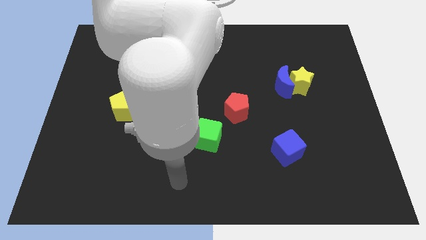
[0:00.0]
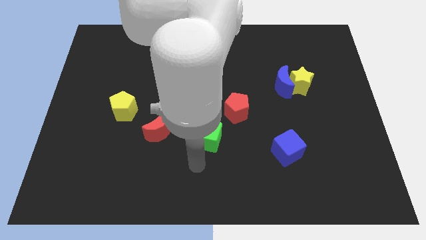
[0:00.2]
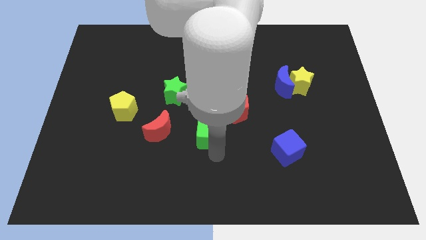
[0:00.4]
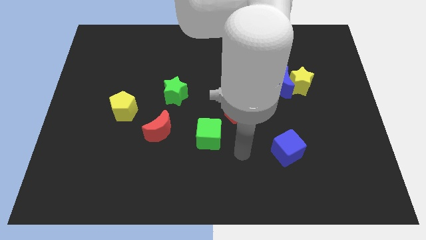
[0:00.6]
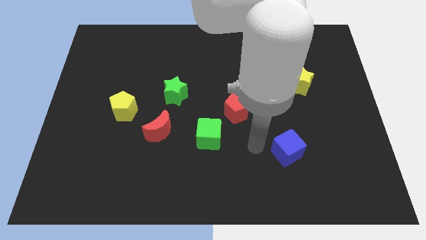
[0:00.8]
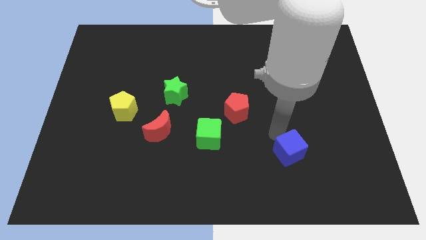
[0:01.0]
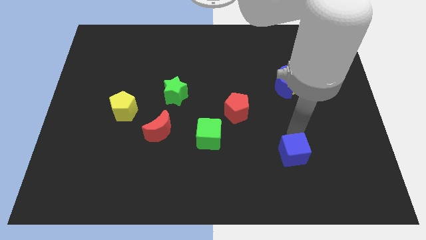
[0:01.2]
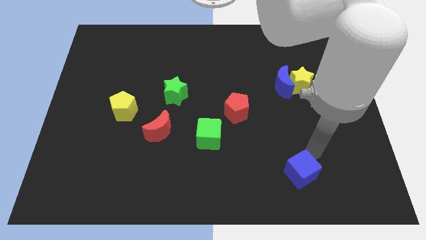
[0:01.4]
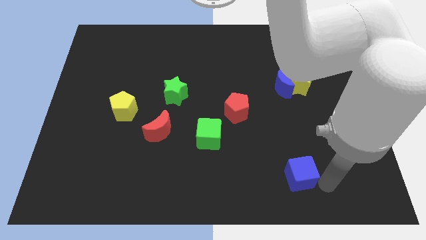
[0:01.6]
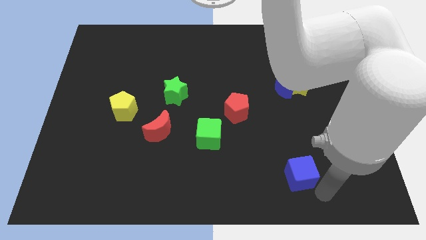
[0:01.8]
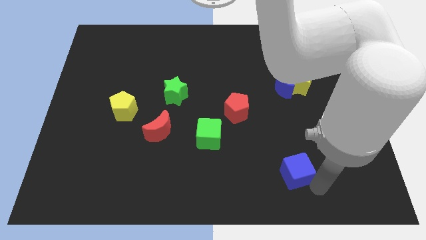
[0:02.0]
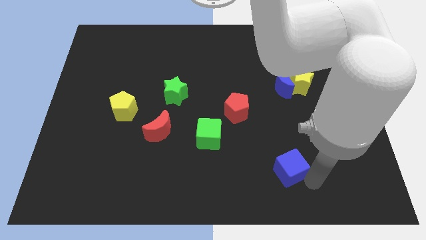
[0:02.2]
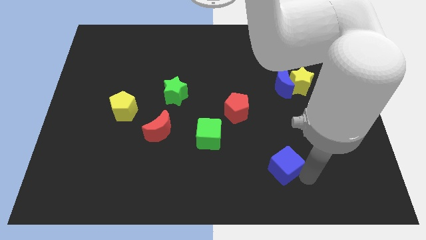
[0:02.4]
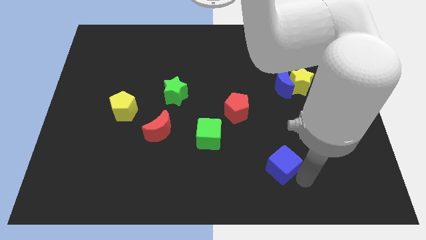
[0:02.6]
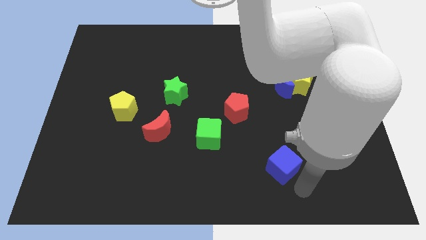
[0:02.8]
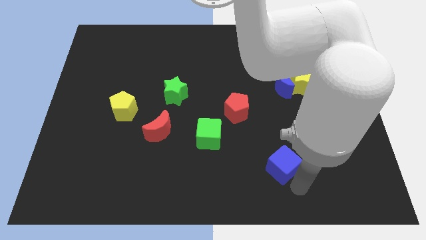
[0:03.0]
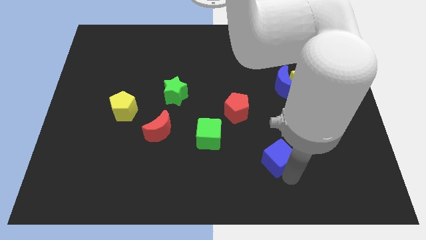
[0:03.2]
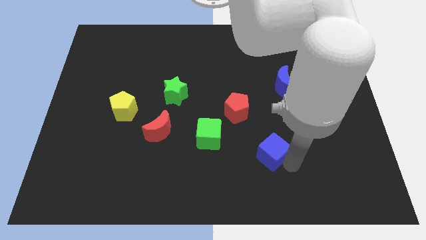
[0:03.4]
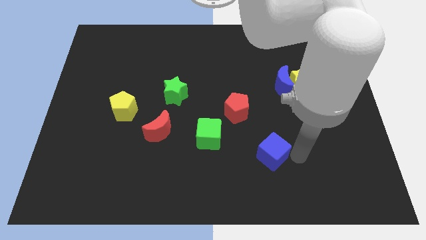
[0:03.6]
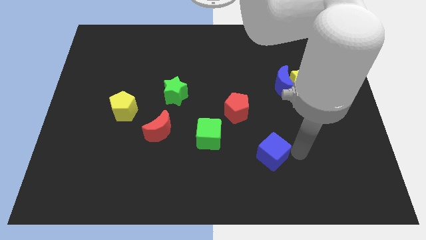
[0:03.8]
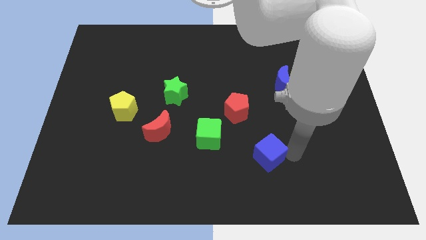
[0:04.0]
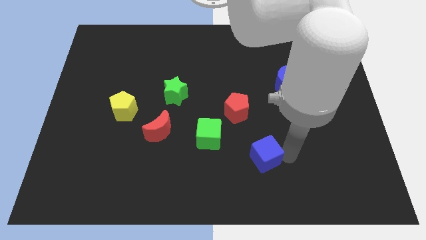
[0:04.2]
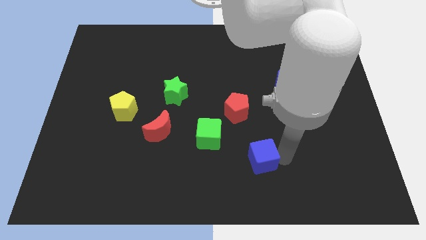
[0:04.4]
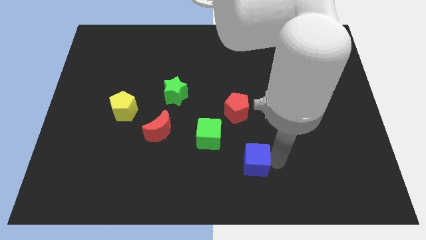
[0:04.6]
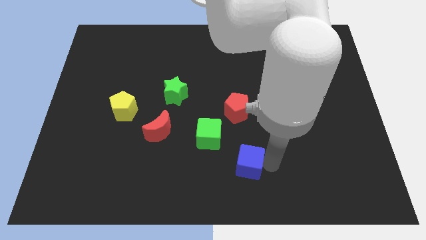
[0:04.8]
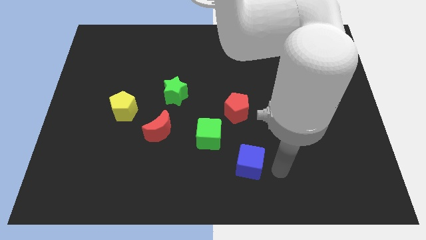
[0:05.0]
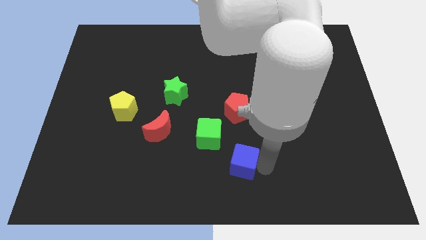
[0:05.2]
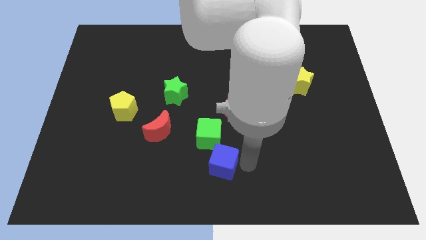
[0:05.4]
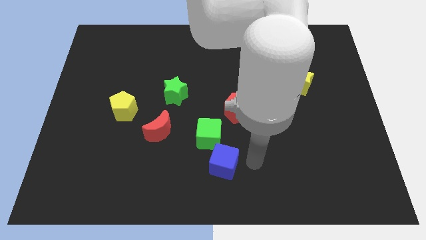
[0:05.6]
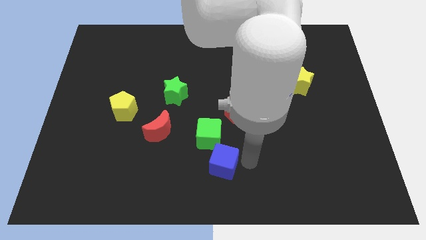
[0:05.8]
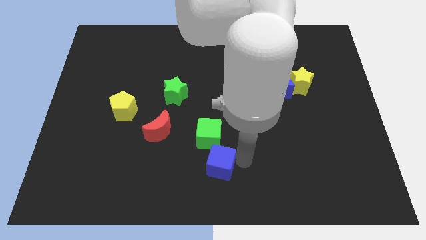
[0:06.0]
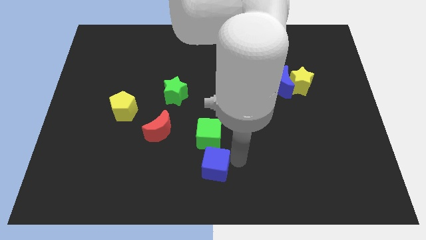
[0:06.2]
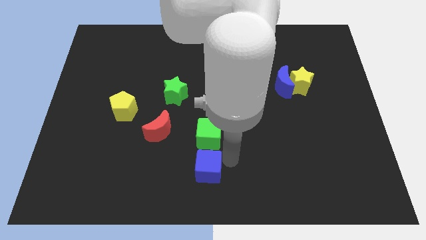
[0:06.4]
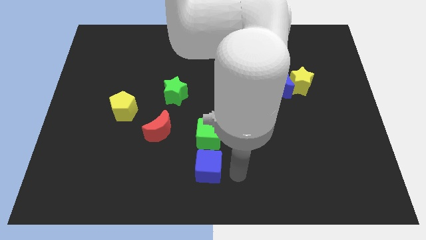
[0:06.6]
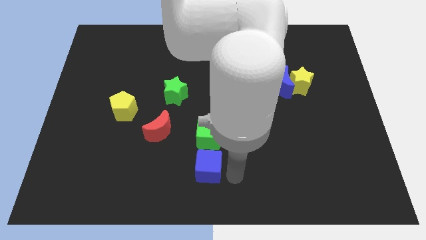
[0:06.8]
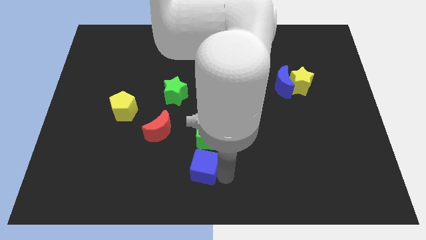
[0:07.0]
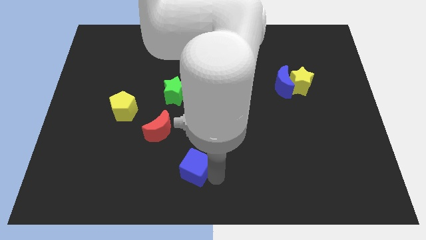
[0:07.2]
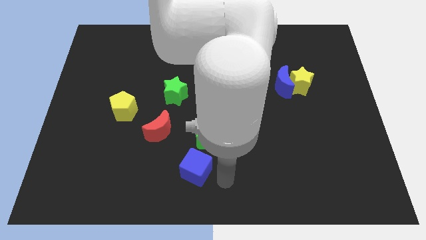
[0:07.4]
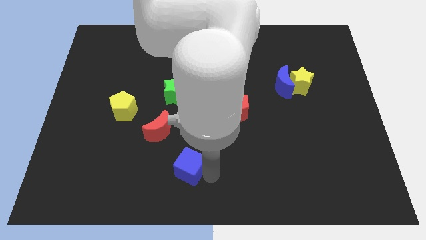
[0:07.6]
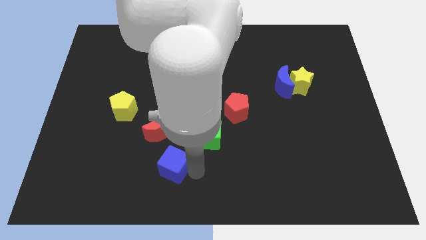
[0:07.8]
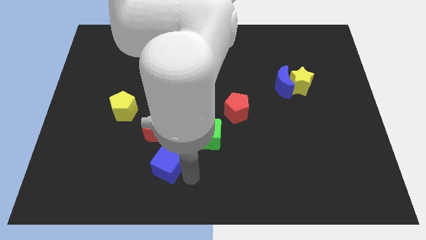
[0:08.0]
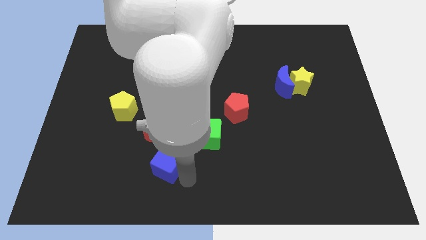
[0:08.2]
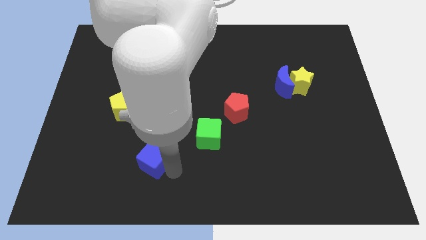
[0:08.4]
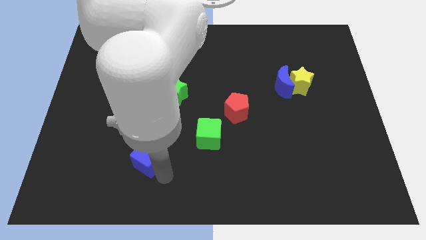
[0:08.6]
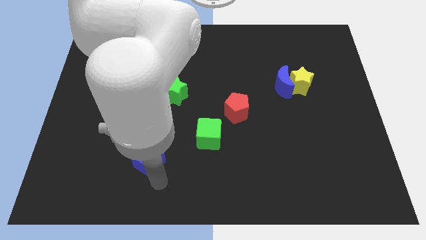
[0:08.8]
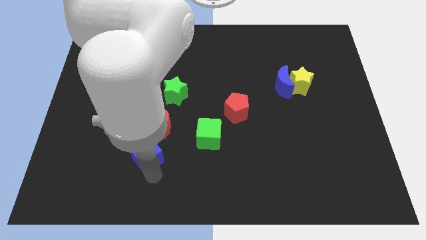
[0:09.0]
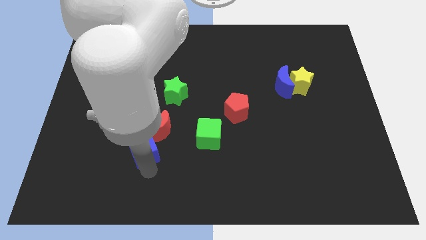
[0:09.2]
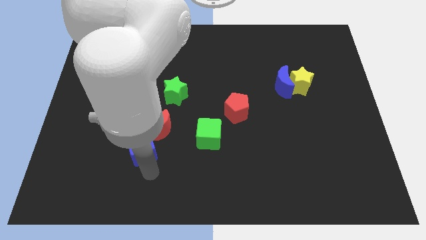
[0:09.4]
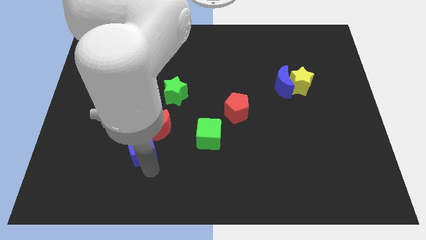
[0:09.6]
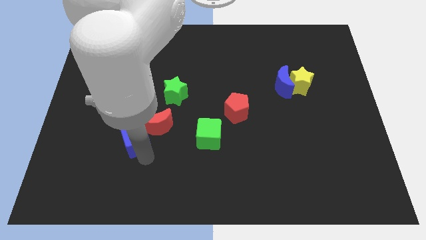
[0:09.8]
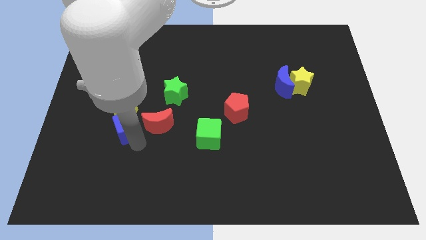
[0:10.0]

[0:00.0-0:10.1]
move the blue cube towards the yellow pentagon

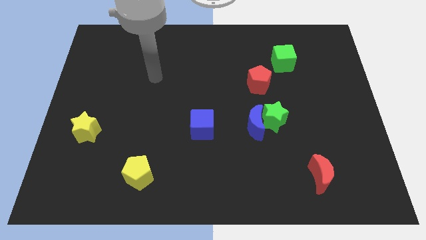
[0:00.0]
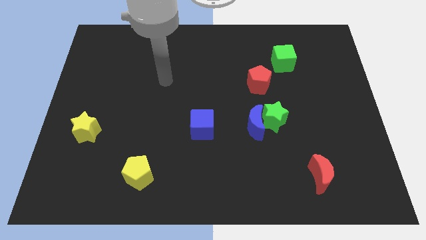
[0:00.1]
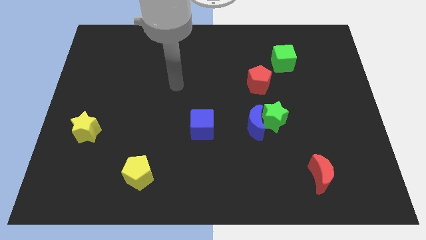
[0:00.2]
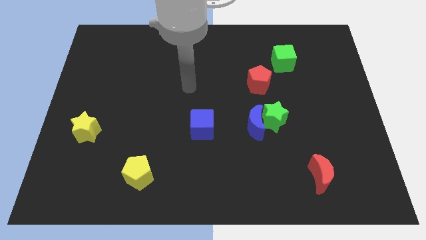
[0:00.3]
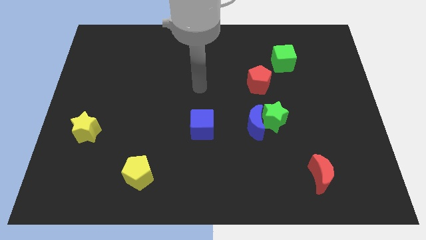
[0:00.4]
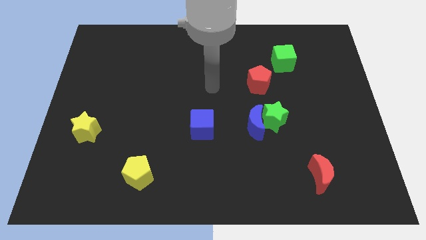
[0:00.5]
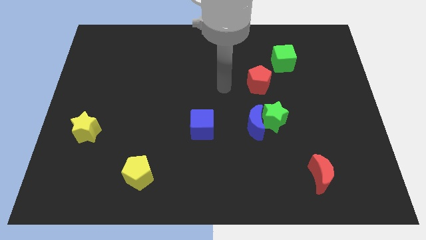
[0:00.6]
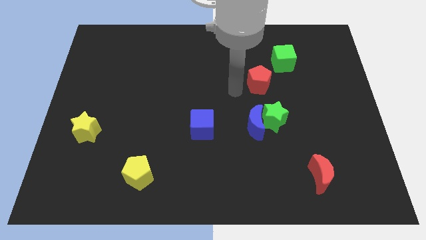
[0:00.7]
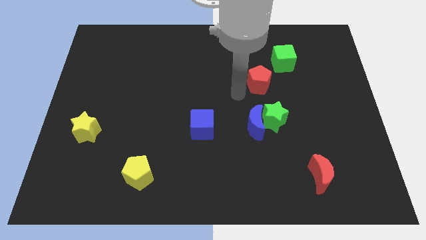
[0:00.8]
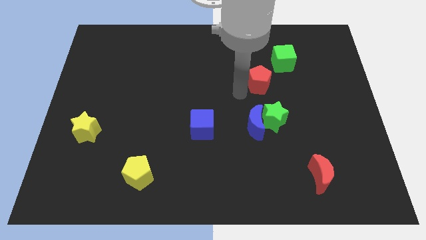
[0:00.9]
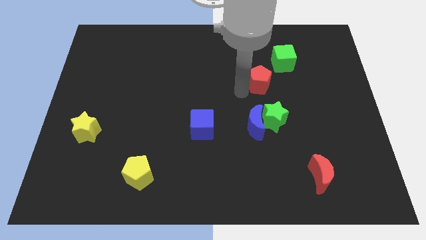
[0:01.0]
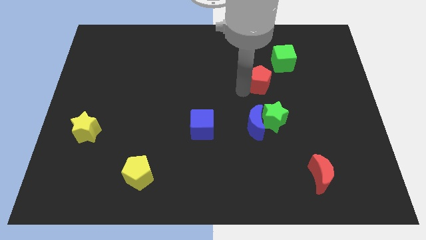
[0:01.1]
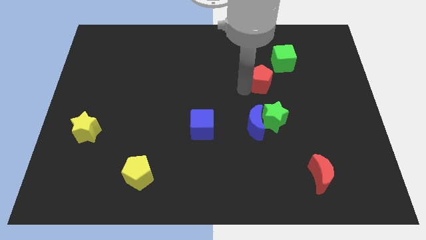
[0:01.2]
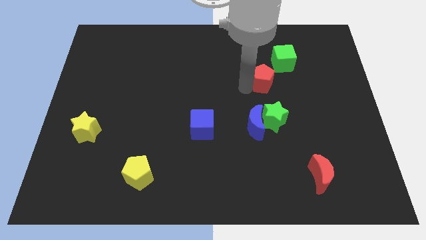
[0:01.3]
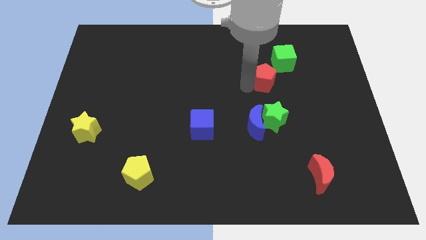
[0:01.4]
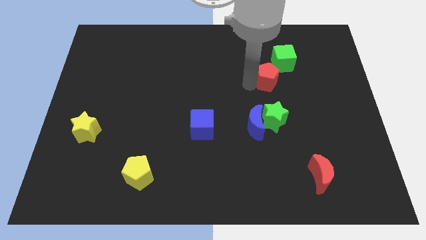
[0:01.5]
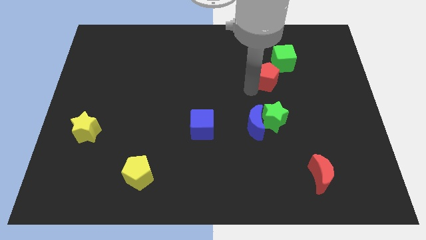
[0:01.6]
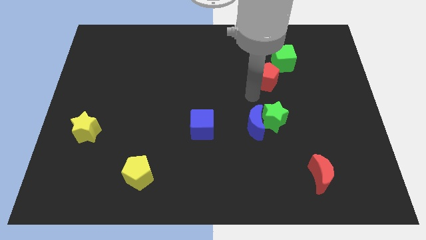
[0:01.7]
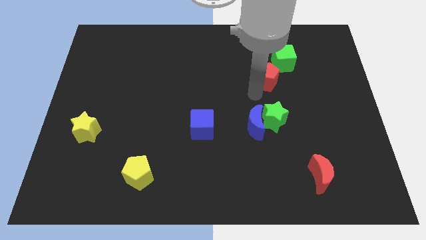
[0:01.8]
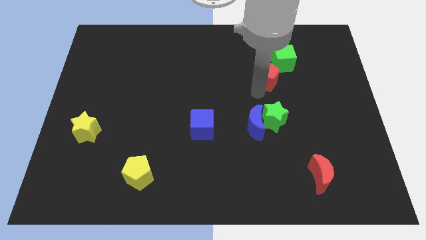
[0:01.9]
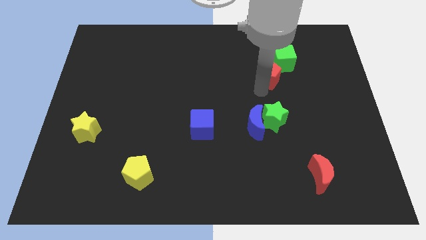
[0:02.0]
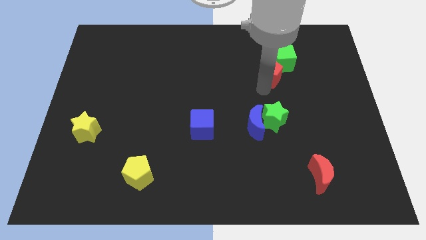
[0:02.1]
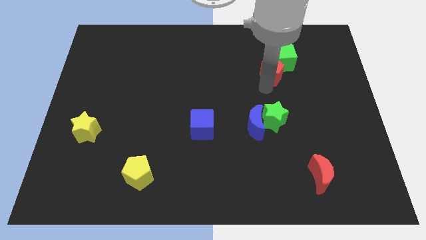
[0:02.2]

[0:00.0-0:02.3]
put the red pentagon to the green cube

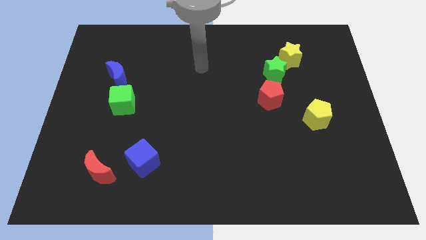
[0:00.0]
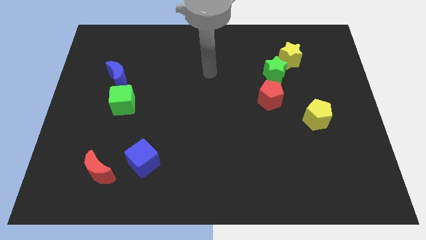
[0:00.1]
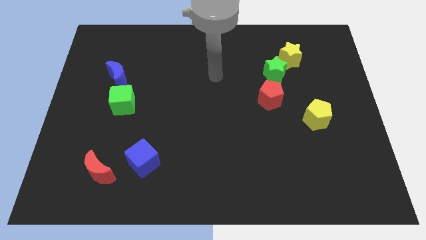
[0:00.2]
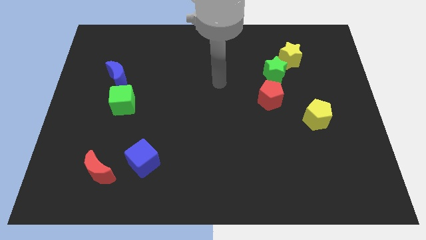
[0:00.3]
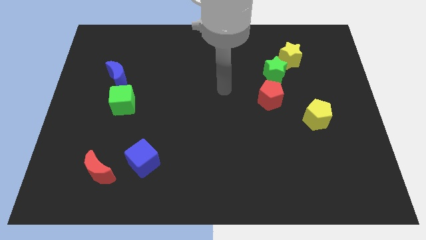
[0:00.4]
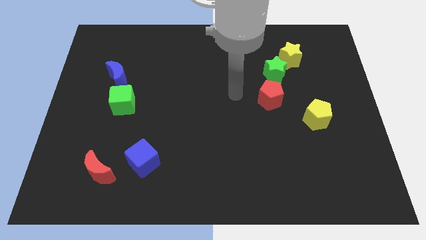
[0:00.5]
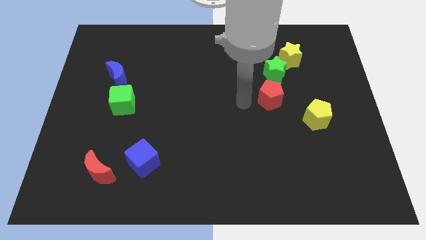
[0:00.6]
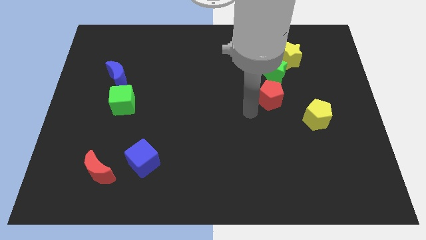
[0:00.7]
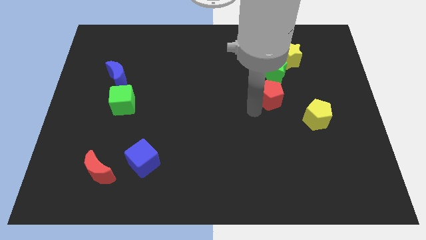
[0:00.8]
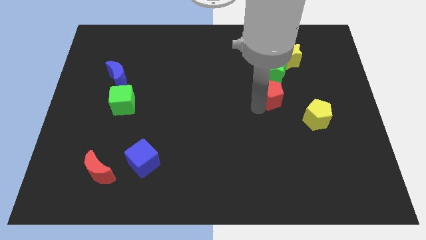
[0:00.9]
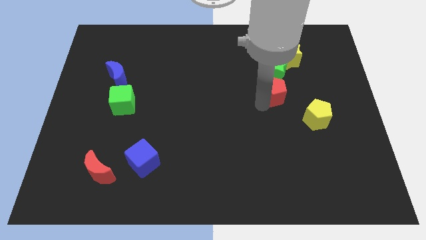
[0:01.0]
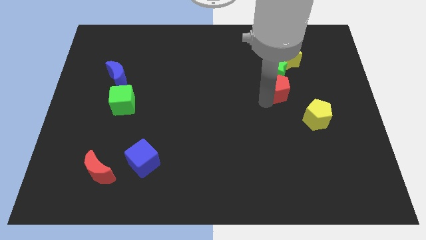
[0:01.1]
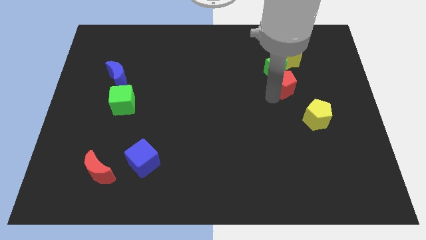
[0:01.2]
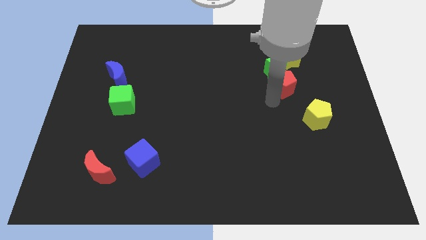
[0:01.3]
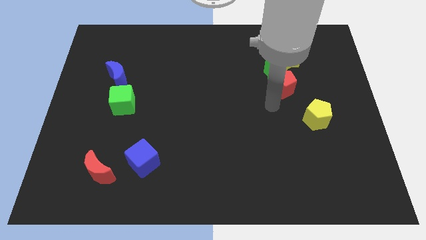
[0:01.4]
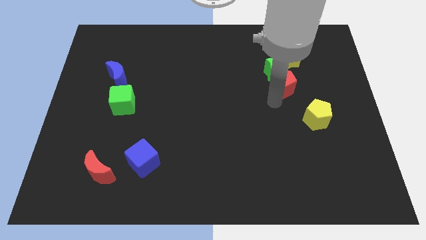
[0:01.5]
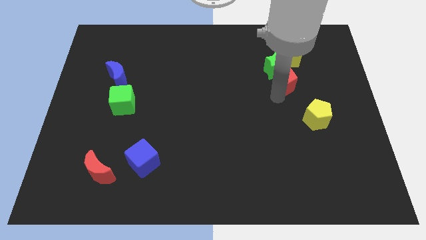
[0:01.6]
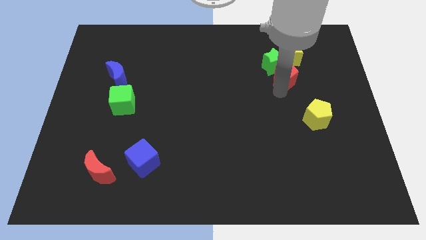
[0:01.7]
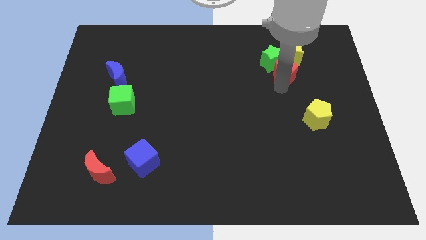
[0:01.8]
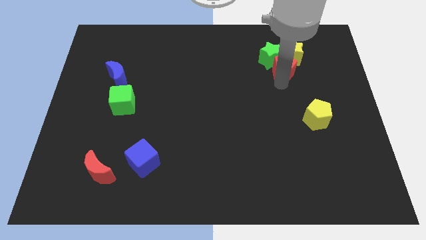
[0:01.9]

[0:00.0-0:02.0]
put the red pentagon towards the yellow star
